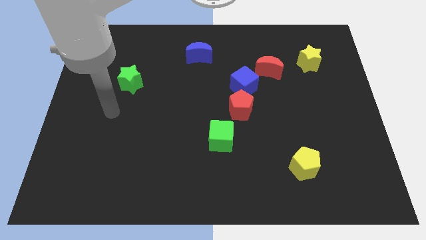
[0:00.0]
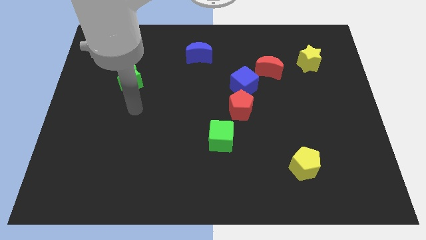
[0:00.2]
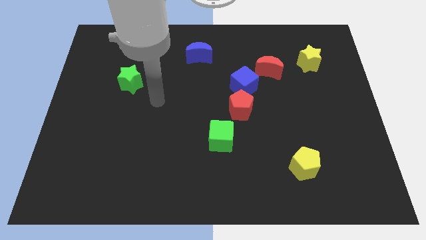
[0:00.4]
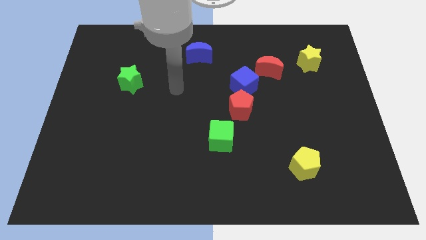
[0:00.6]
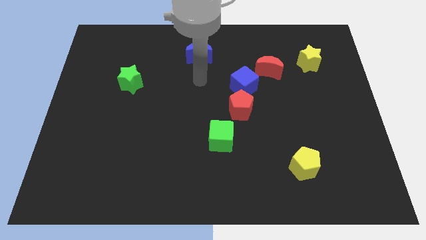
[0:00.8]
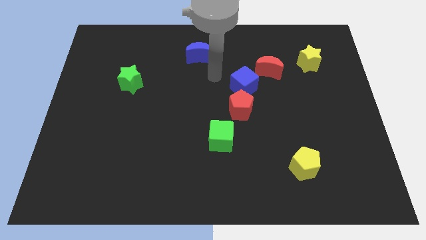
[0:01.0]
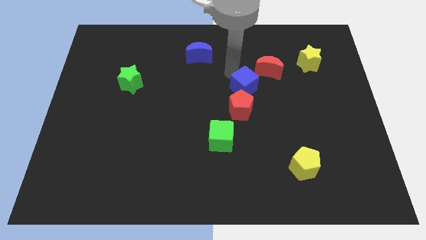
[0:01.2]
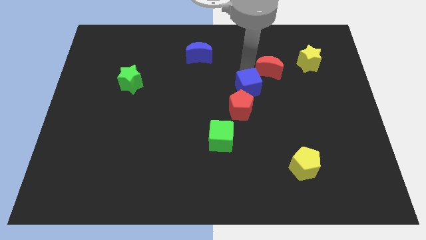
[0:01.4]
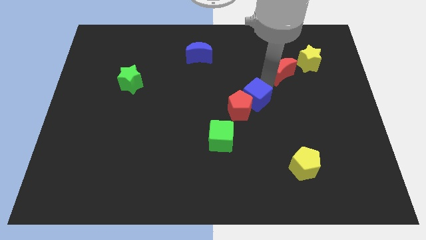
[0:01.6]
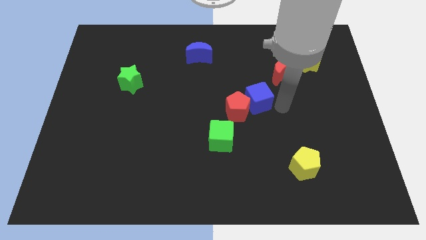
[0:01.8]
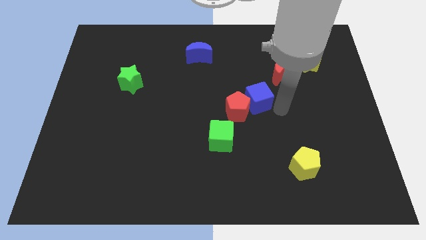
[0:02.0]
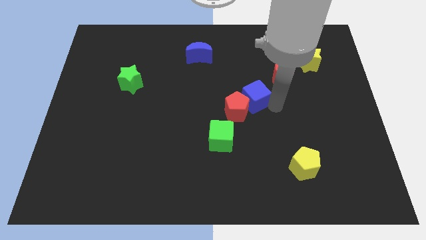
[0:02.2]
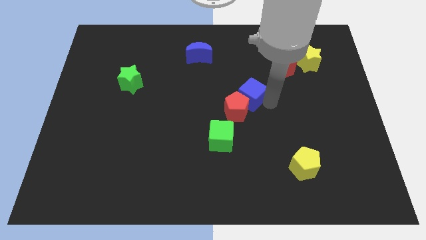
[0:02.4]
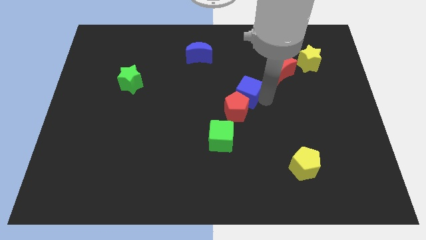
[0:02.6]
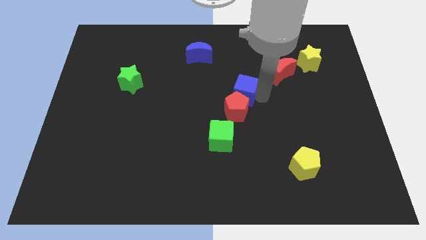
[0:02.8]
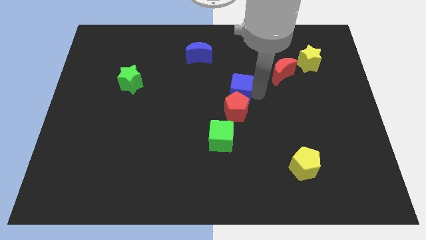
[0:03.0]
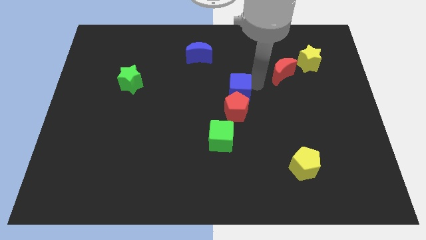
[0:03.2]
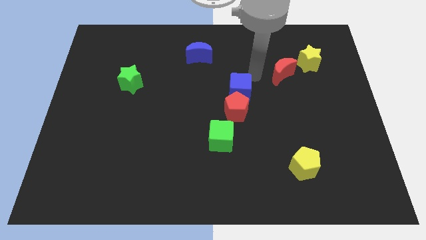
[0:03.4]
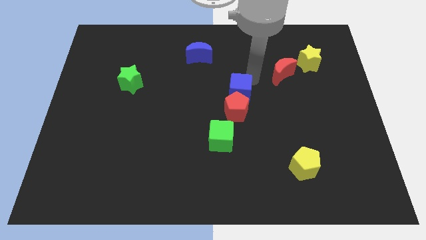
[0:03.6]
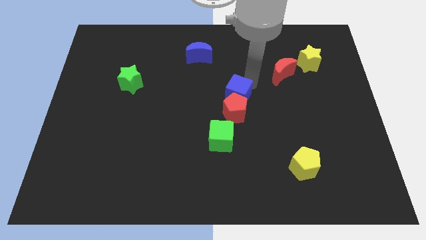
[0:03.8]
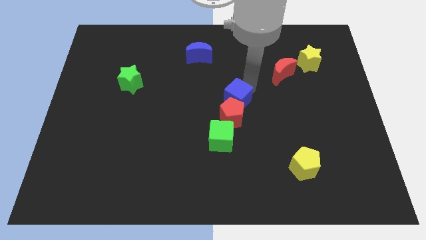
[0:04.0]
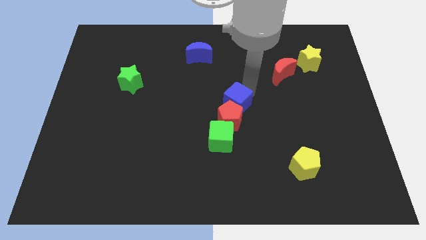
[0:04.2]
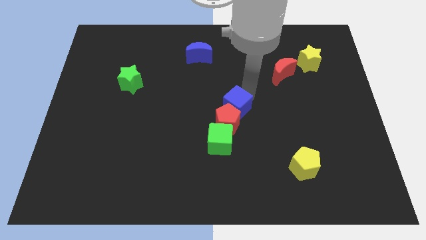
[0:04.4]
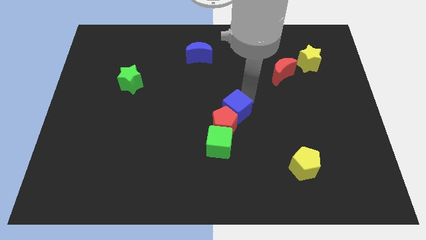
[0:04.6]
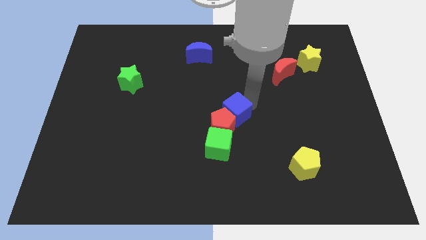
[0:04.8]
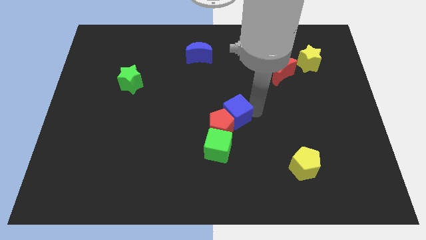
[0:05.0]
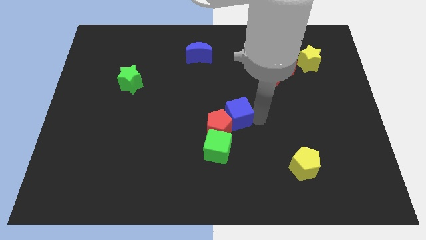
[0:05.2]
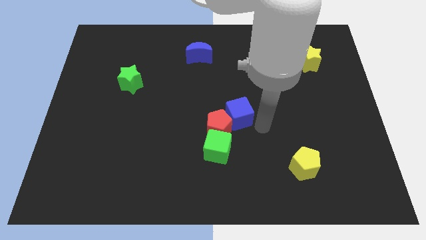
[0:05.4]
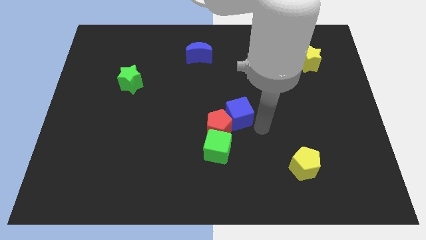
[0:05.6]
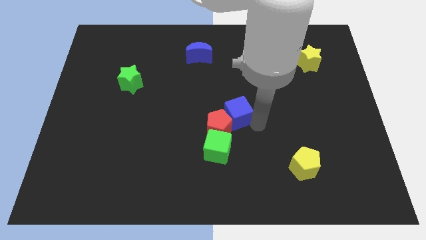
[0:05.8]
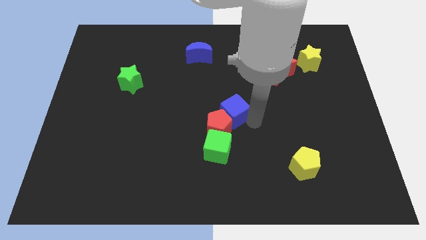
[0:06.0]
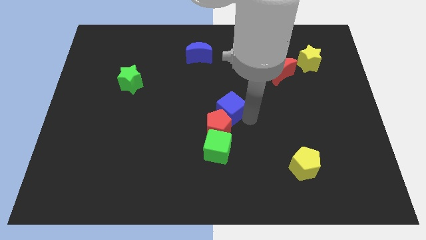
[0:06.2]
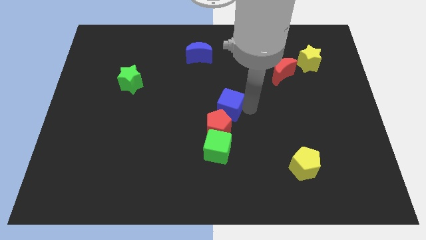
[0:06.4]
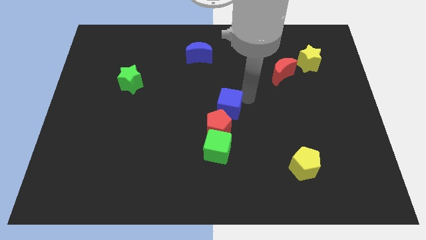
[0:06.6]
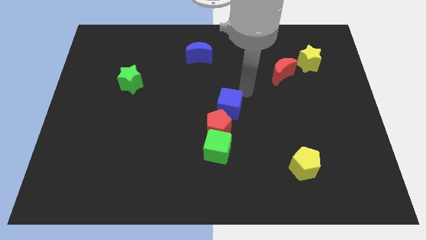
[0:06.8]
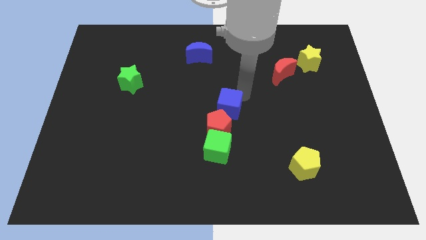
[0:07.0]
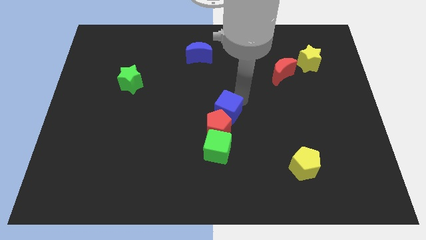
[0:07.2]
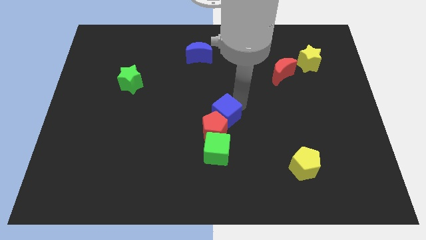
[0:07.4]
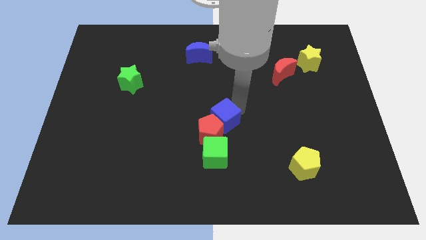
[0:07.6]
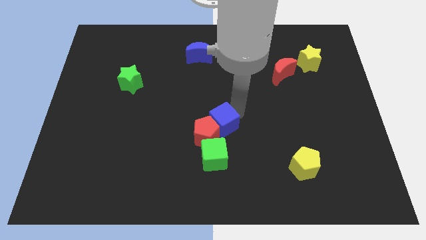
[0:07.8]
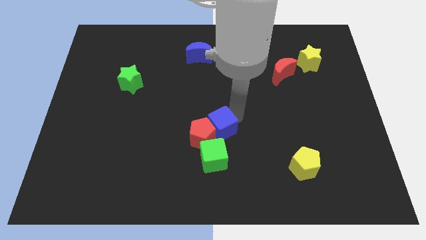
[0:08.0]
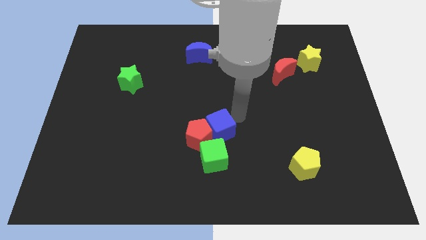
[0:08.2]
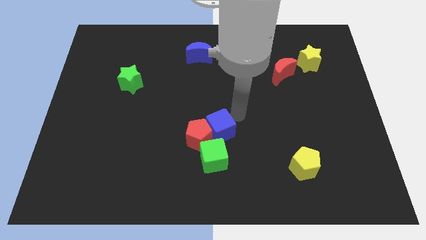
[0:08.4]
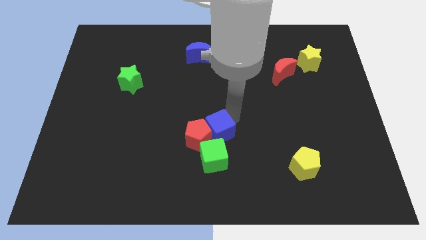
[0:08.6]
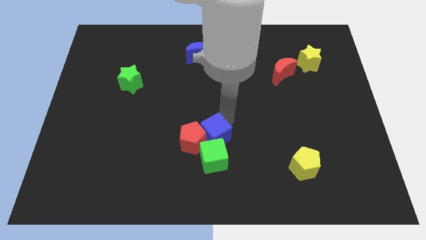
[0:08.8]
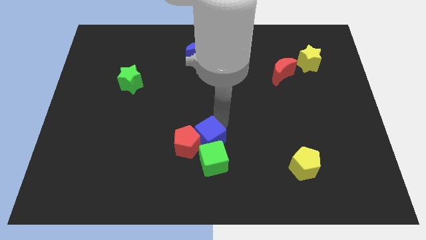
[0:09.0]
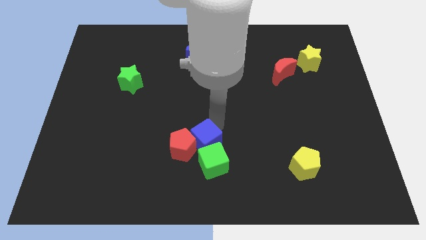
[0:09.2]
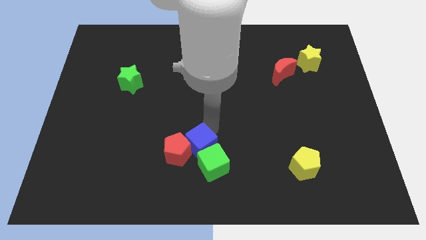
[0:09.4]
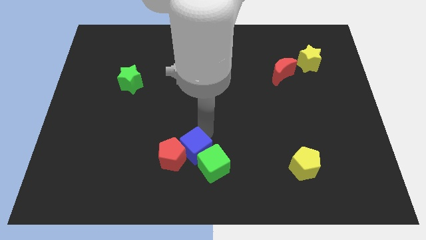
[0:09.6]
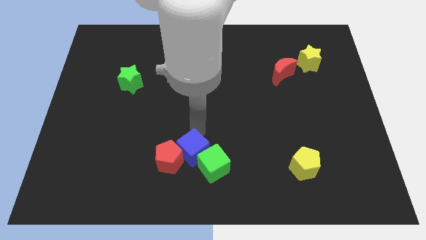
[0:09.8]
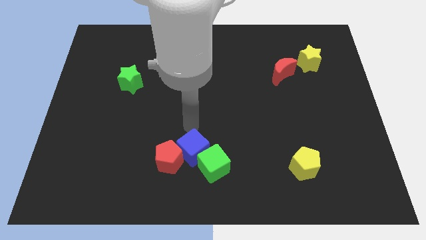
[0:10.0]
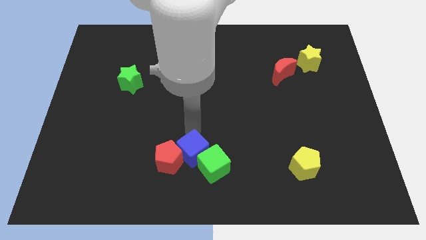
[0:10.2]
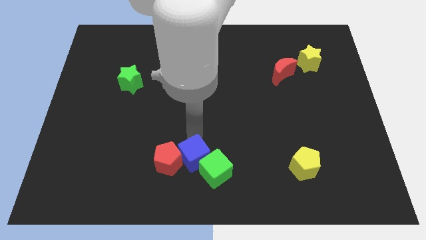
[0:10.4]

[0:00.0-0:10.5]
move the blue cube to the bottom side
